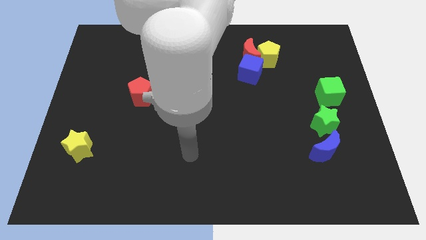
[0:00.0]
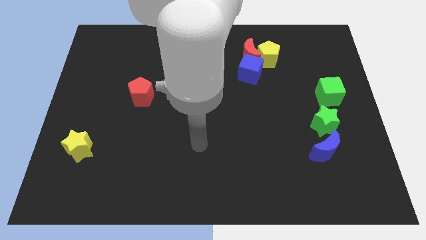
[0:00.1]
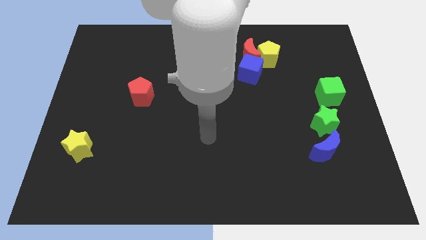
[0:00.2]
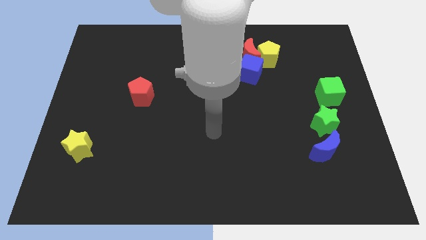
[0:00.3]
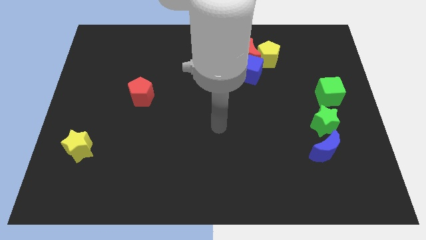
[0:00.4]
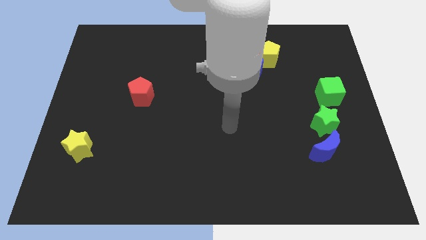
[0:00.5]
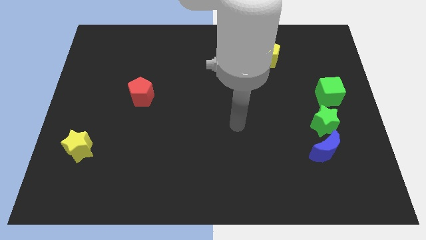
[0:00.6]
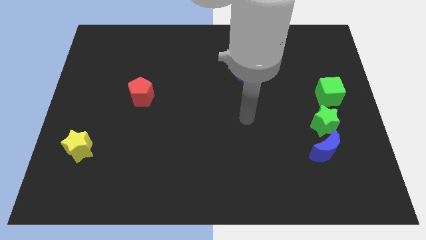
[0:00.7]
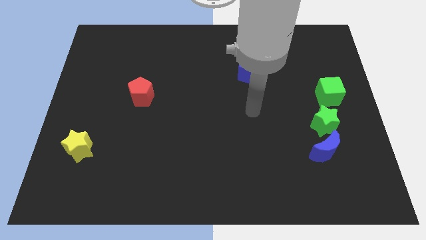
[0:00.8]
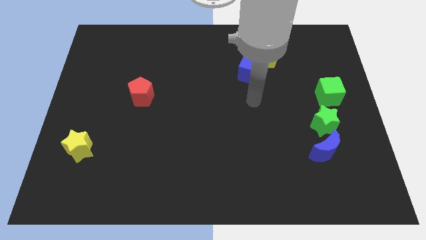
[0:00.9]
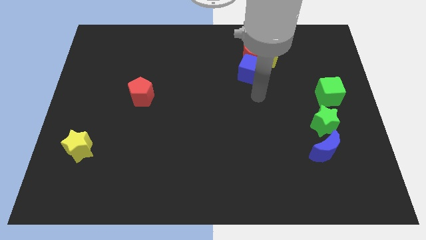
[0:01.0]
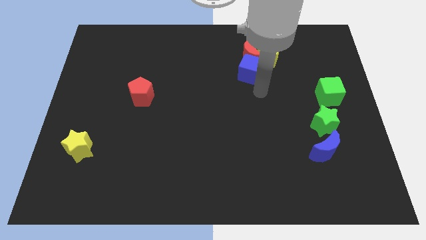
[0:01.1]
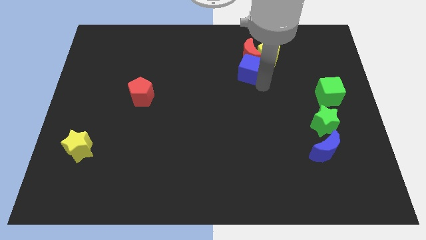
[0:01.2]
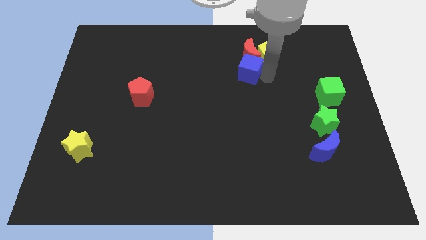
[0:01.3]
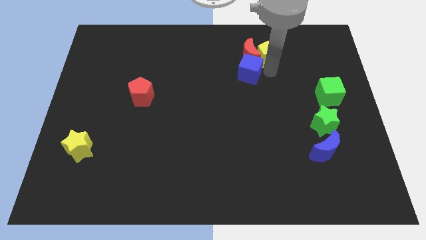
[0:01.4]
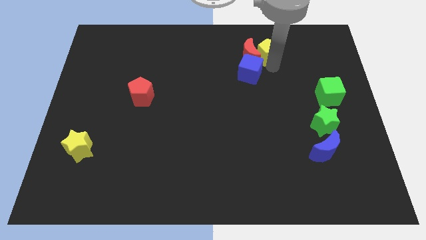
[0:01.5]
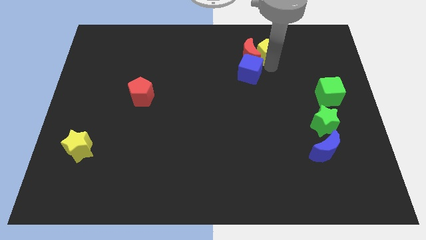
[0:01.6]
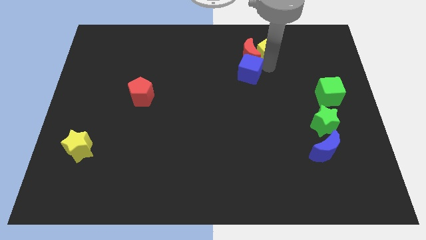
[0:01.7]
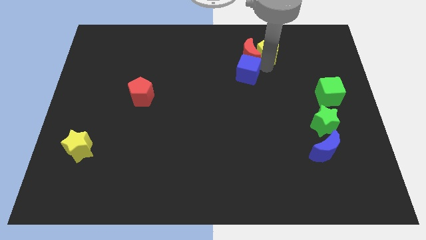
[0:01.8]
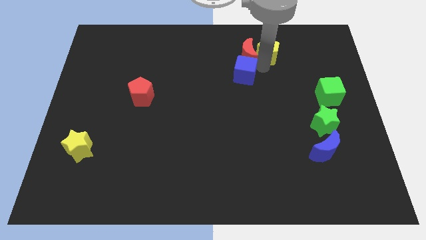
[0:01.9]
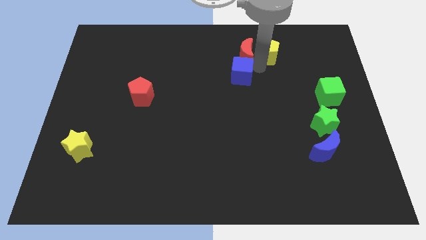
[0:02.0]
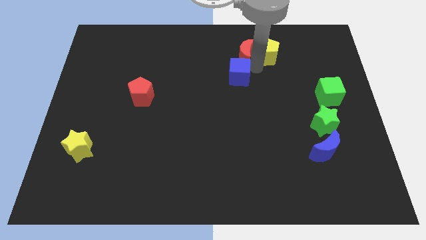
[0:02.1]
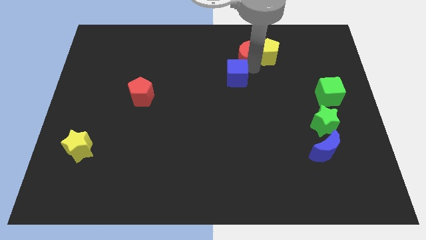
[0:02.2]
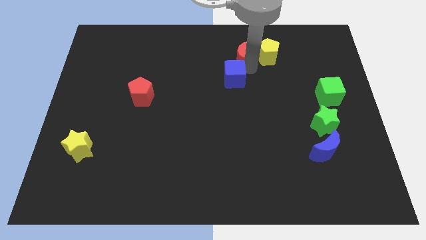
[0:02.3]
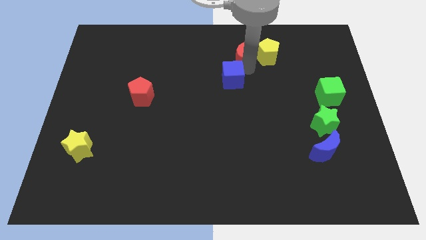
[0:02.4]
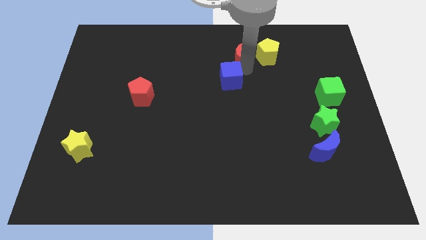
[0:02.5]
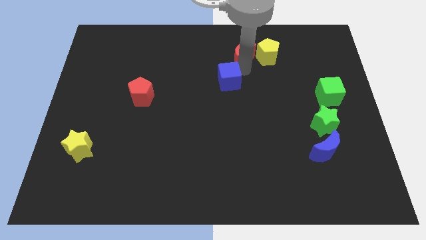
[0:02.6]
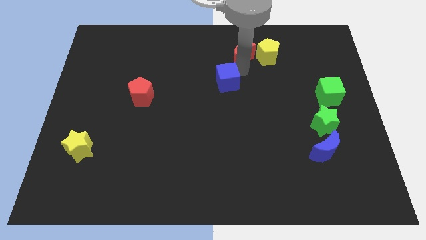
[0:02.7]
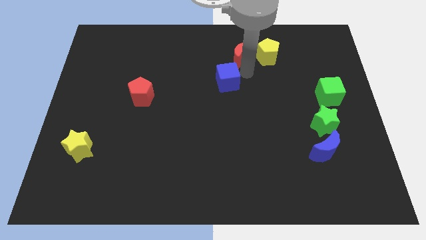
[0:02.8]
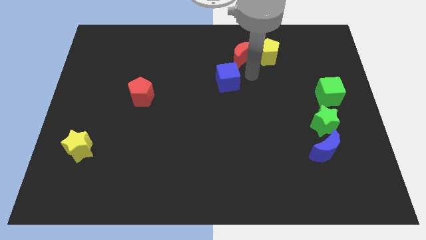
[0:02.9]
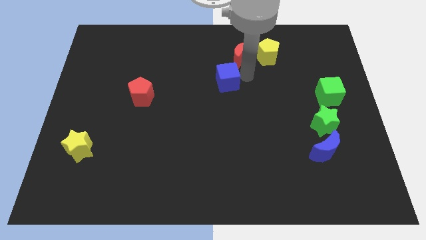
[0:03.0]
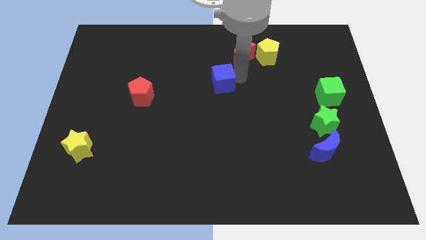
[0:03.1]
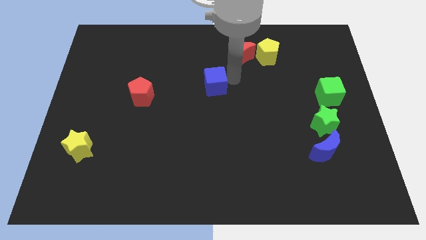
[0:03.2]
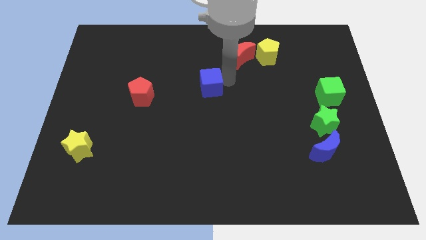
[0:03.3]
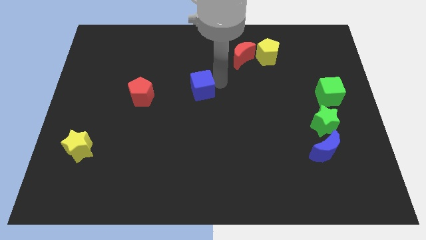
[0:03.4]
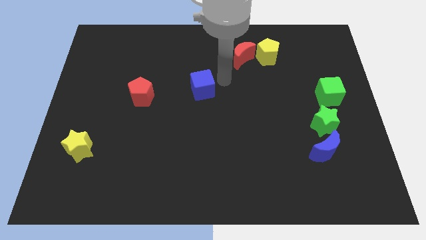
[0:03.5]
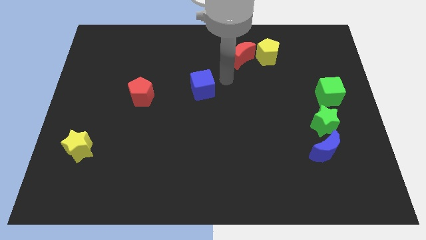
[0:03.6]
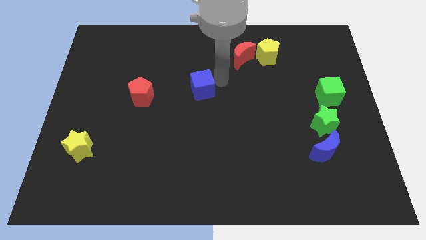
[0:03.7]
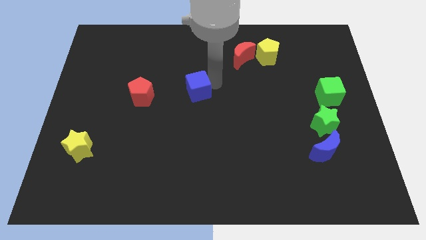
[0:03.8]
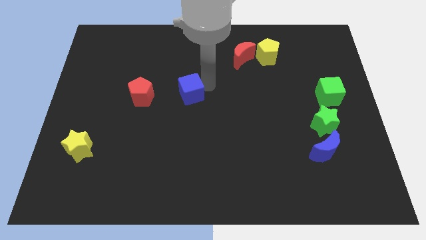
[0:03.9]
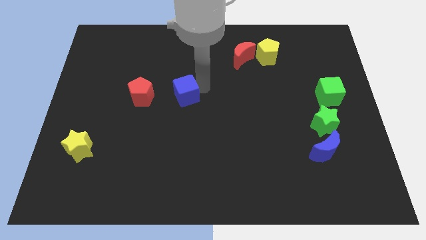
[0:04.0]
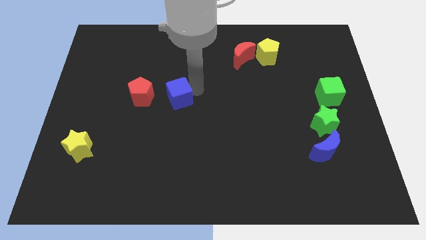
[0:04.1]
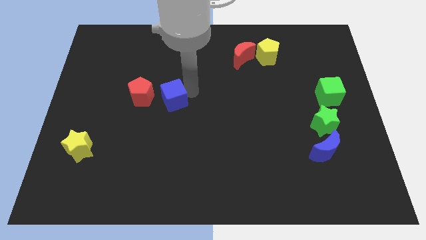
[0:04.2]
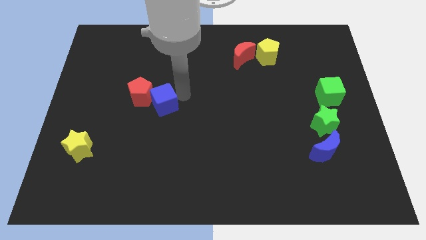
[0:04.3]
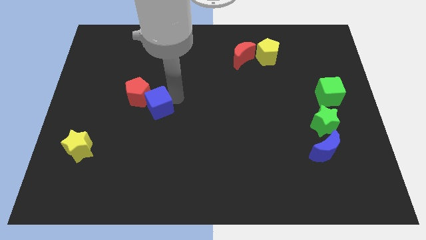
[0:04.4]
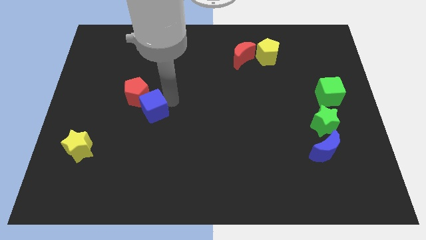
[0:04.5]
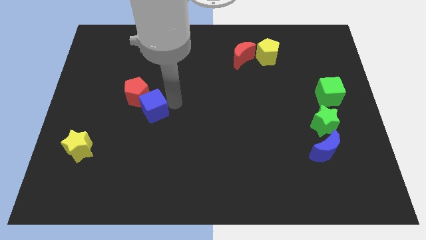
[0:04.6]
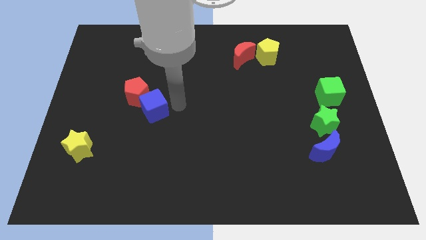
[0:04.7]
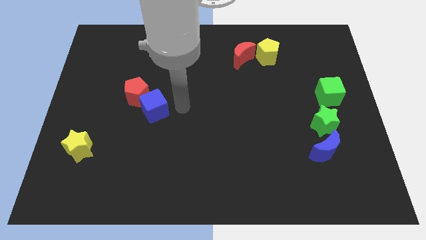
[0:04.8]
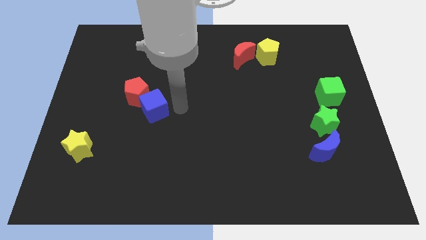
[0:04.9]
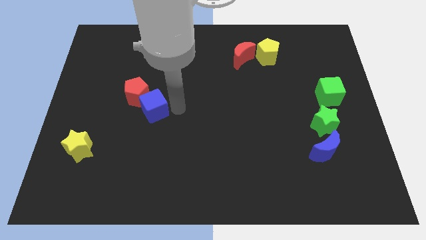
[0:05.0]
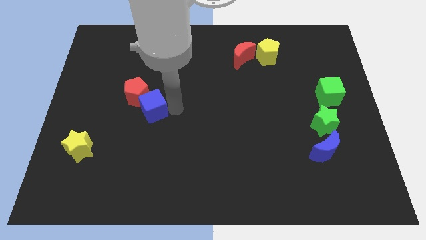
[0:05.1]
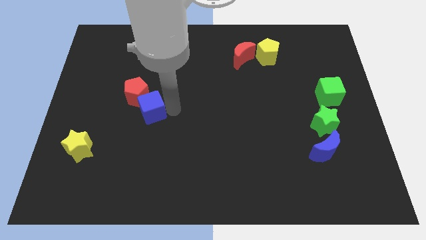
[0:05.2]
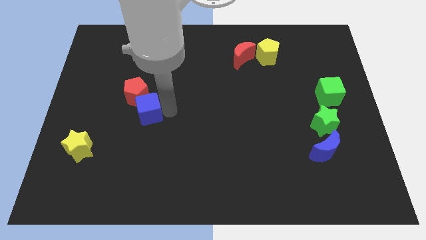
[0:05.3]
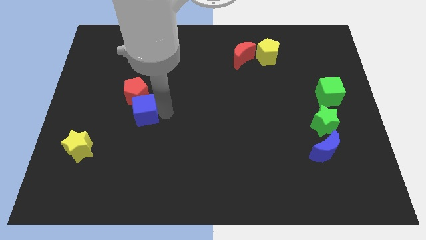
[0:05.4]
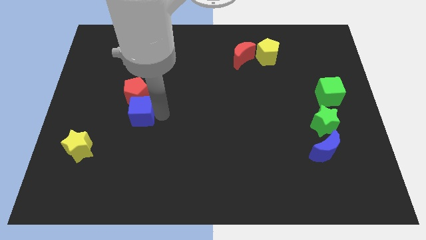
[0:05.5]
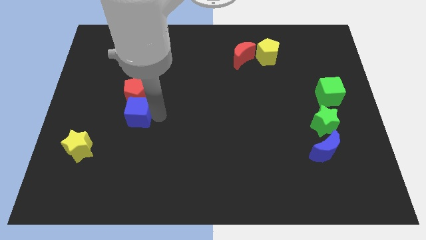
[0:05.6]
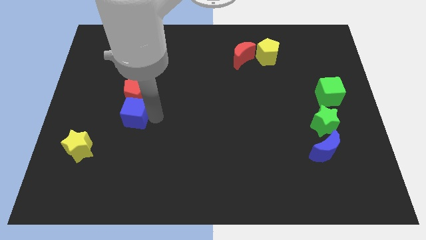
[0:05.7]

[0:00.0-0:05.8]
move the blue cube to the bottom left of the red pentagon

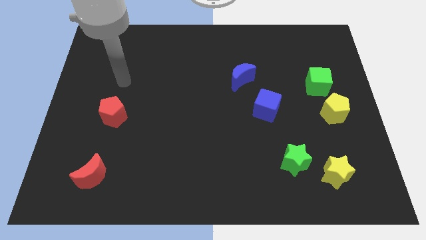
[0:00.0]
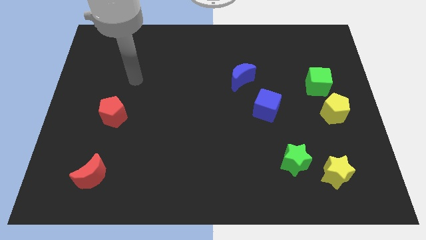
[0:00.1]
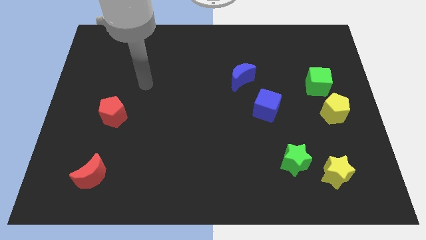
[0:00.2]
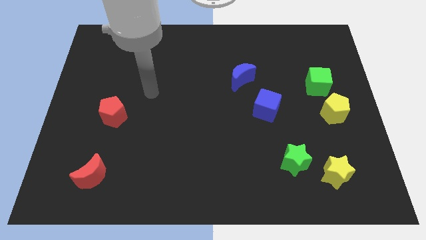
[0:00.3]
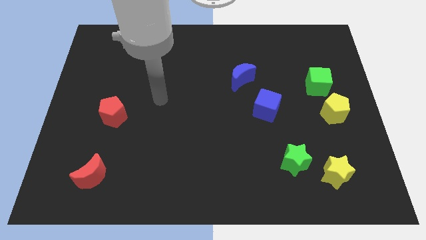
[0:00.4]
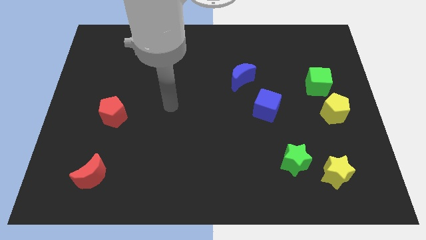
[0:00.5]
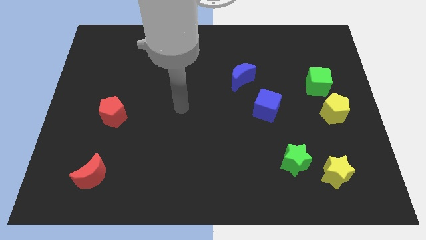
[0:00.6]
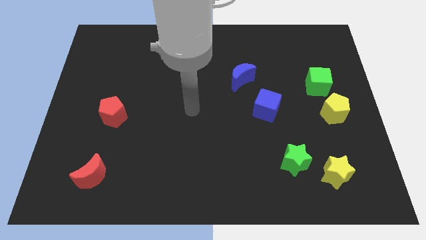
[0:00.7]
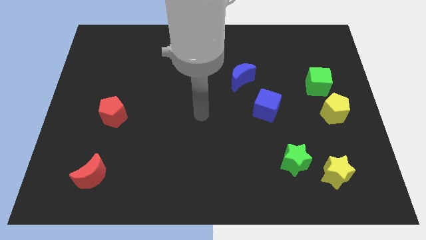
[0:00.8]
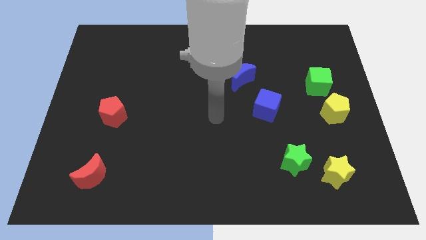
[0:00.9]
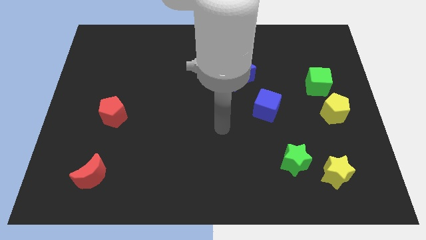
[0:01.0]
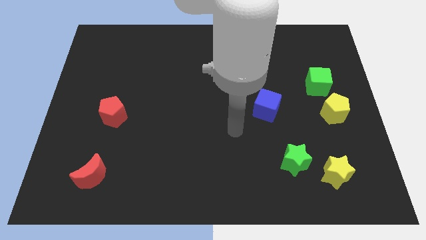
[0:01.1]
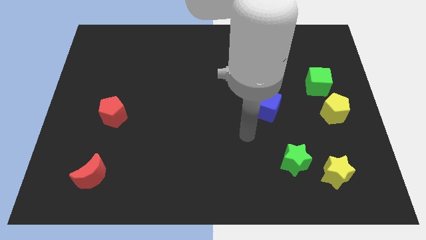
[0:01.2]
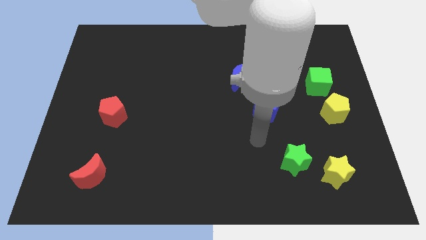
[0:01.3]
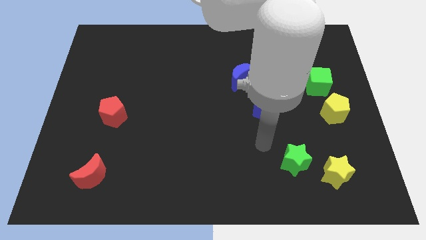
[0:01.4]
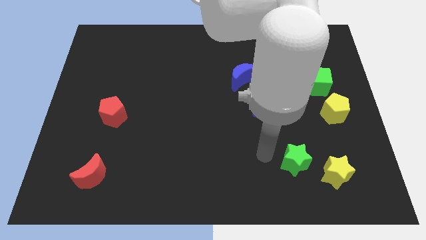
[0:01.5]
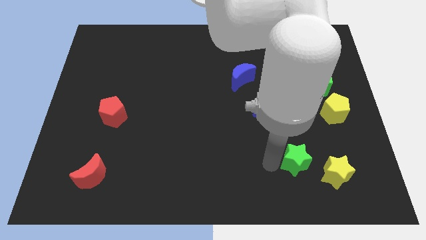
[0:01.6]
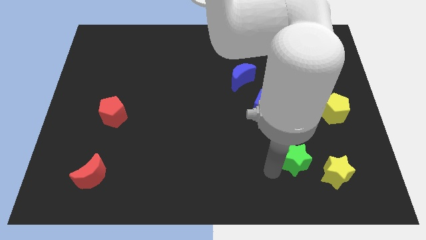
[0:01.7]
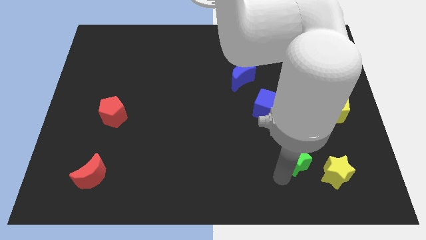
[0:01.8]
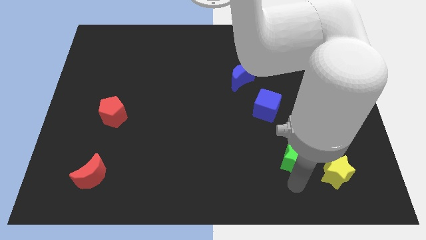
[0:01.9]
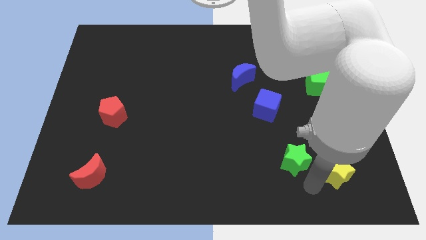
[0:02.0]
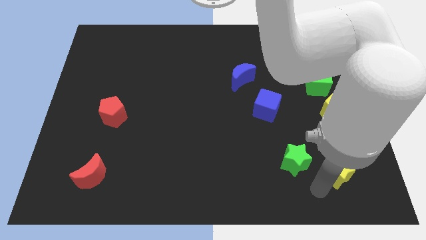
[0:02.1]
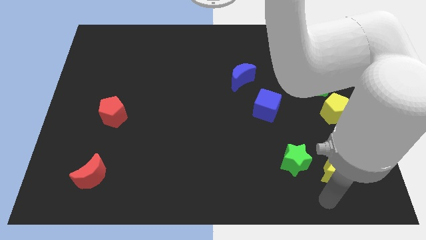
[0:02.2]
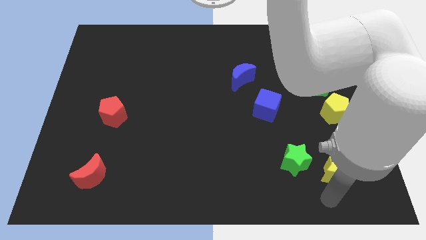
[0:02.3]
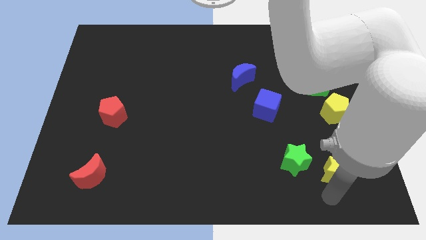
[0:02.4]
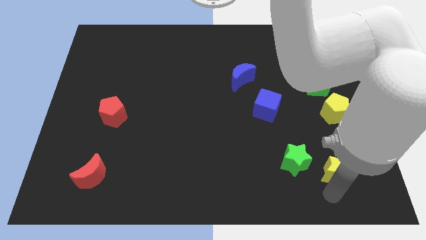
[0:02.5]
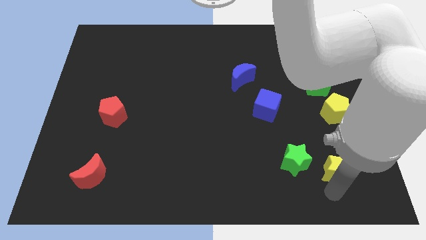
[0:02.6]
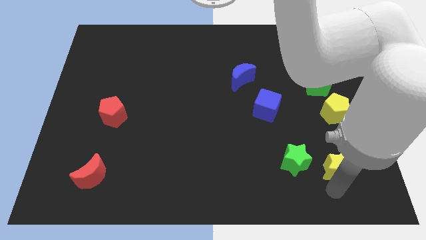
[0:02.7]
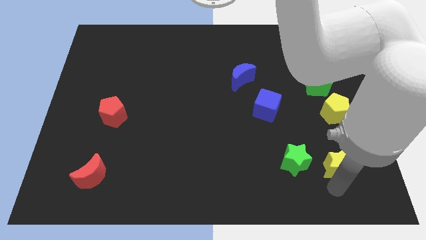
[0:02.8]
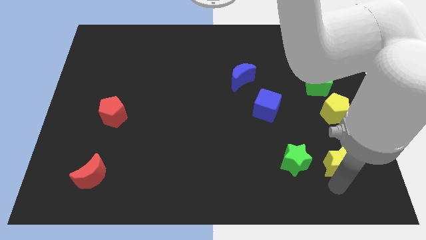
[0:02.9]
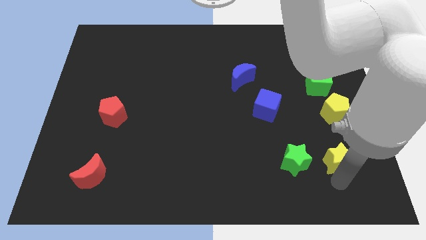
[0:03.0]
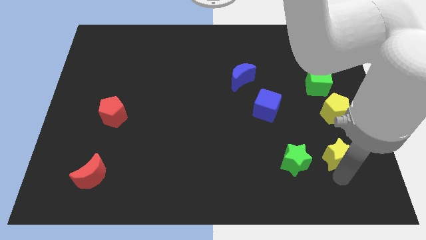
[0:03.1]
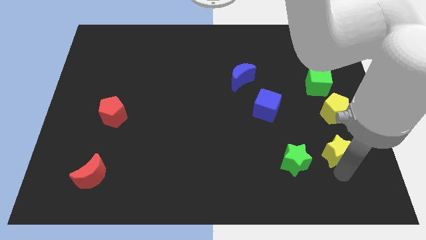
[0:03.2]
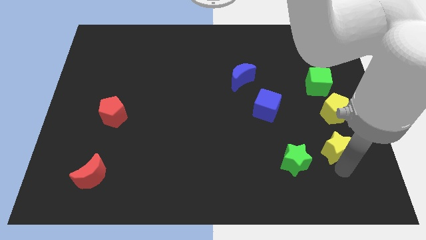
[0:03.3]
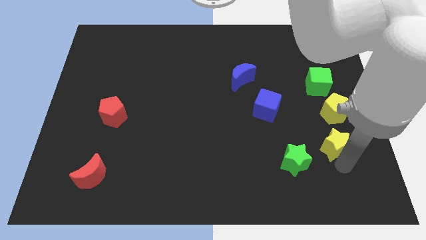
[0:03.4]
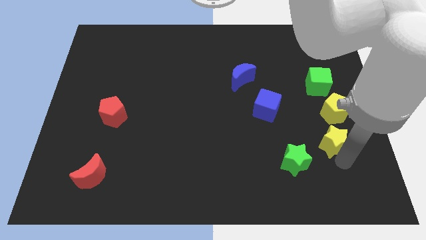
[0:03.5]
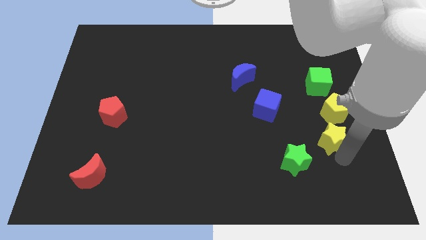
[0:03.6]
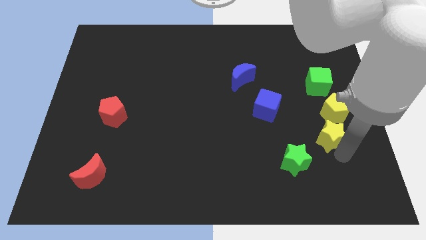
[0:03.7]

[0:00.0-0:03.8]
push the yellow star to the bottom of the green cube
